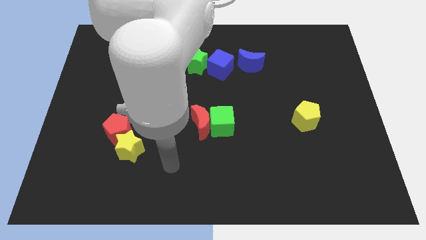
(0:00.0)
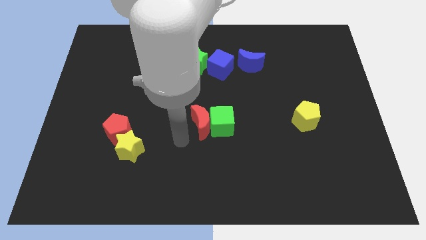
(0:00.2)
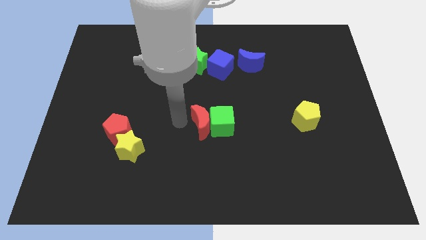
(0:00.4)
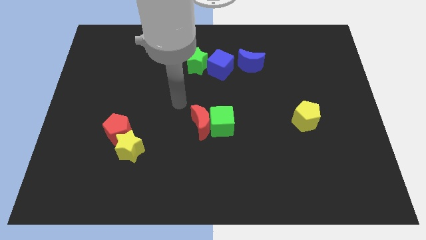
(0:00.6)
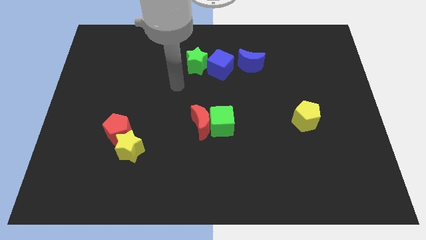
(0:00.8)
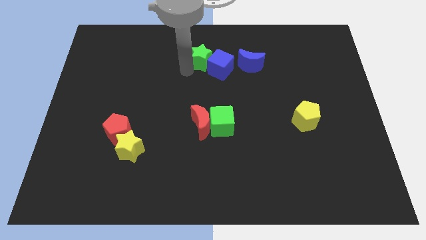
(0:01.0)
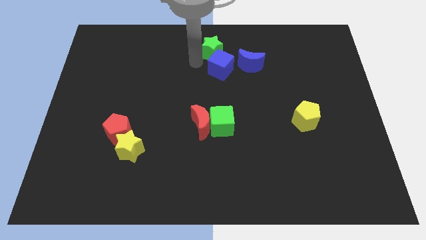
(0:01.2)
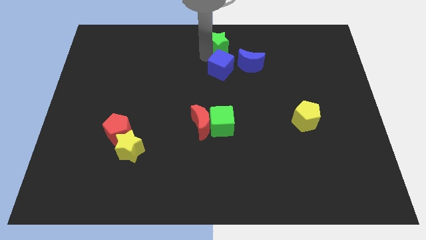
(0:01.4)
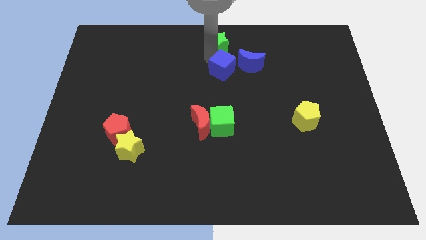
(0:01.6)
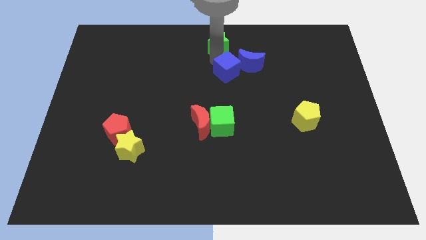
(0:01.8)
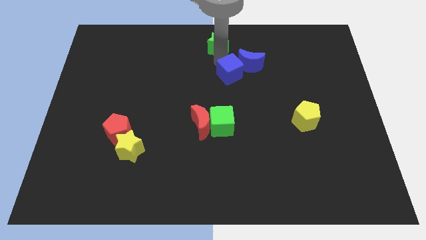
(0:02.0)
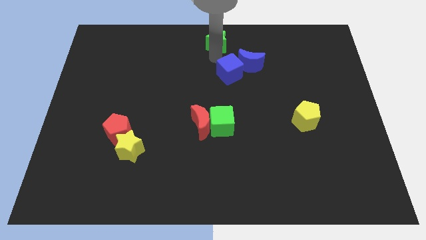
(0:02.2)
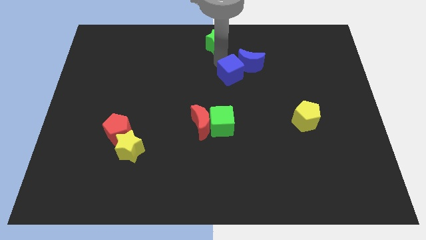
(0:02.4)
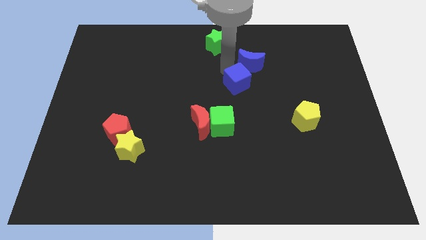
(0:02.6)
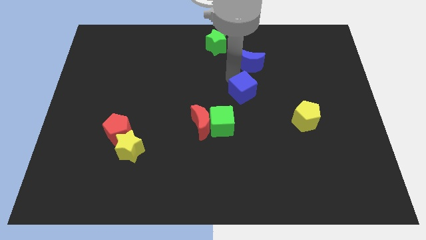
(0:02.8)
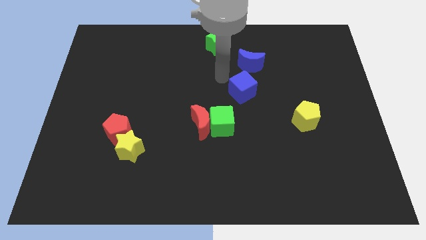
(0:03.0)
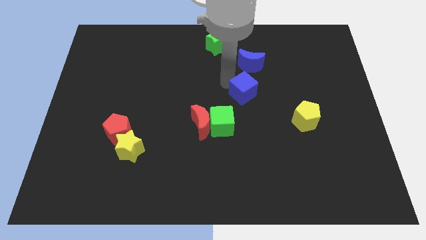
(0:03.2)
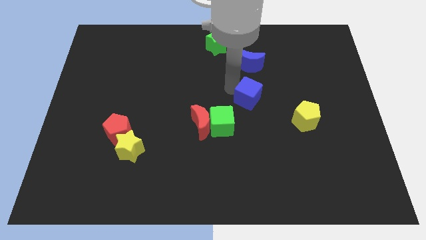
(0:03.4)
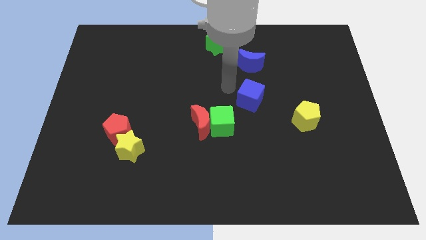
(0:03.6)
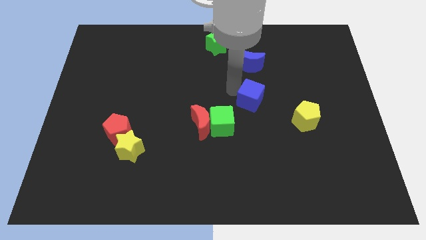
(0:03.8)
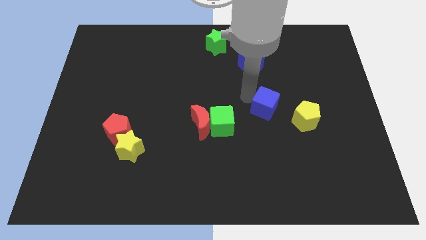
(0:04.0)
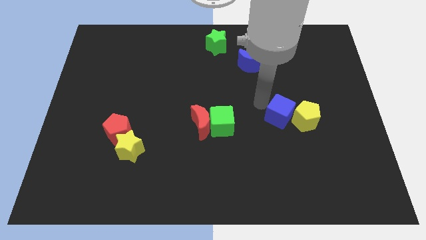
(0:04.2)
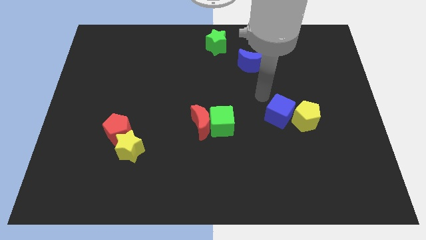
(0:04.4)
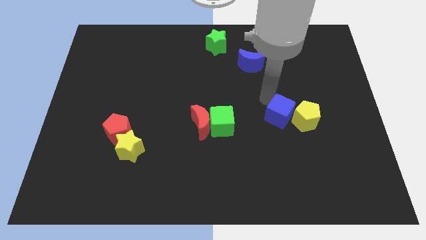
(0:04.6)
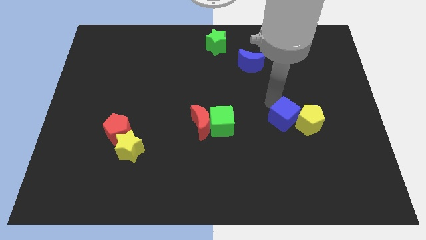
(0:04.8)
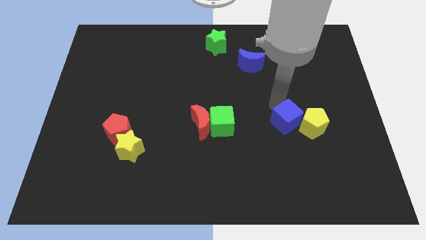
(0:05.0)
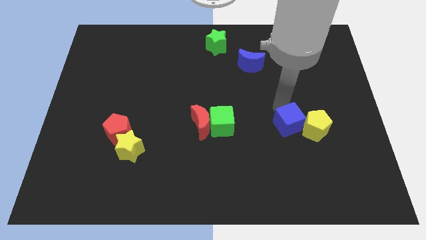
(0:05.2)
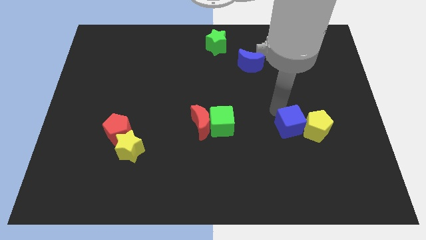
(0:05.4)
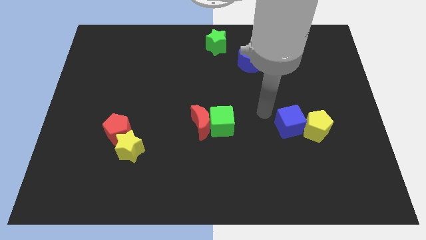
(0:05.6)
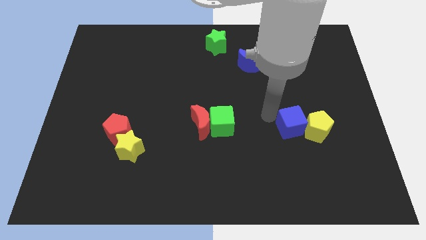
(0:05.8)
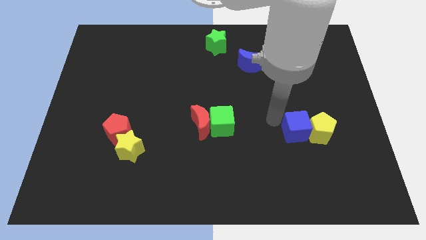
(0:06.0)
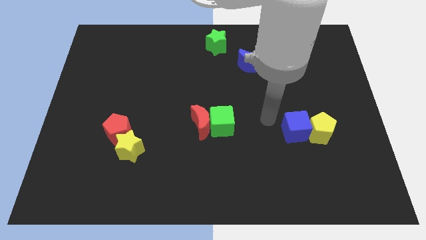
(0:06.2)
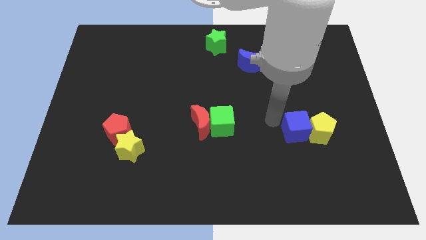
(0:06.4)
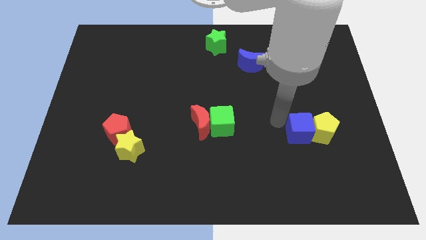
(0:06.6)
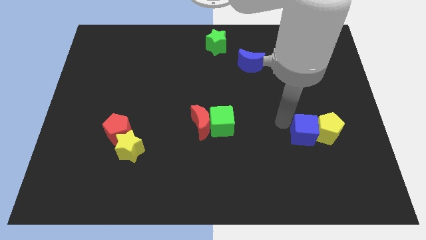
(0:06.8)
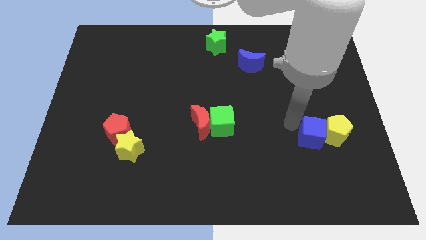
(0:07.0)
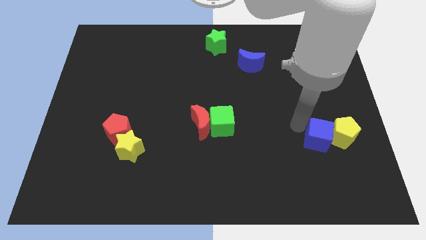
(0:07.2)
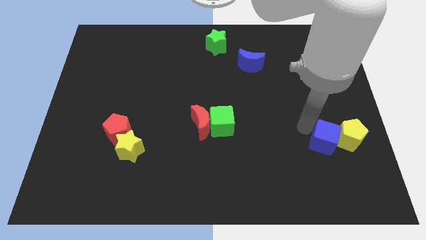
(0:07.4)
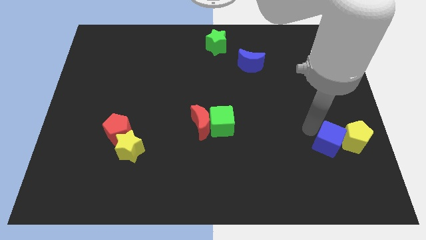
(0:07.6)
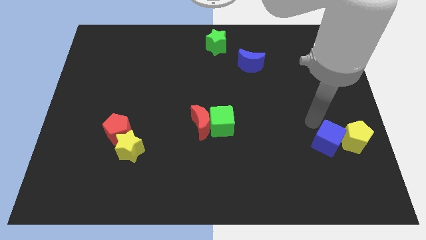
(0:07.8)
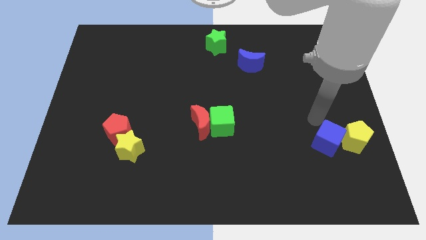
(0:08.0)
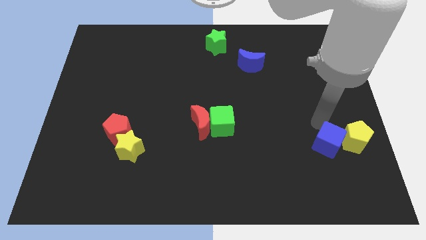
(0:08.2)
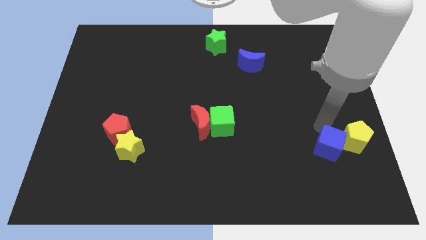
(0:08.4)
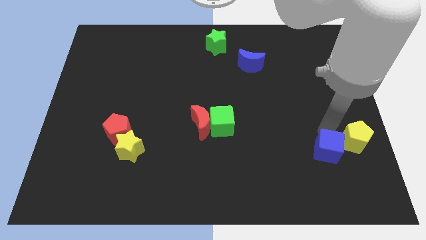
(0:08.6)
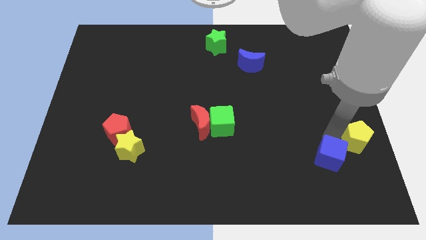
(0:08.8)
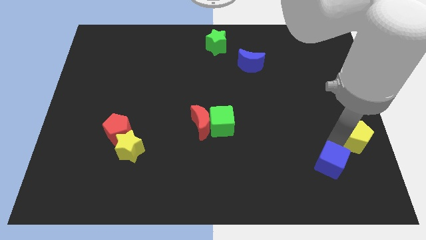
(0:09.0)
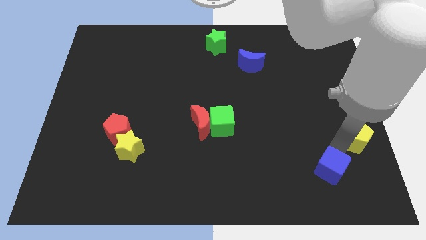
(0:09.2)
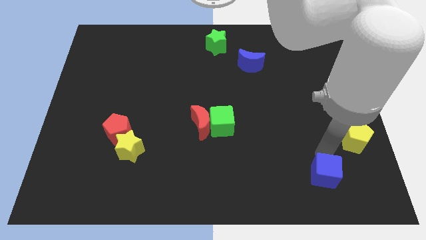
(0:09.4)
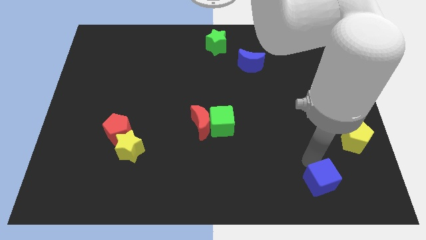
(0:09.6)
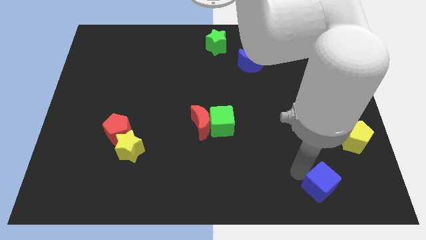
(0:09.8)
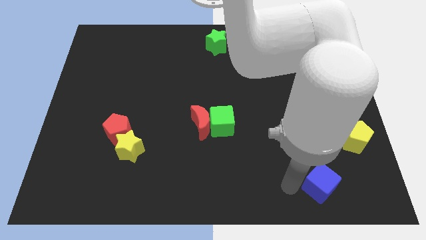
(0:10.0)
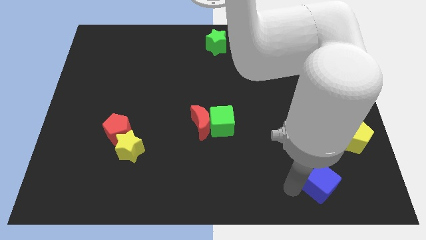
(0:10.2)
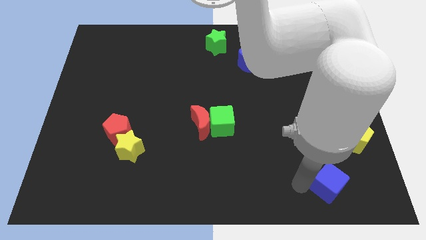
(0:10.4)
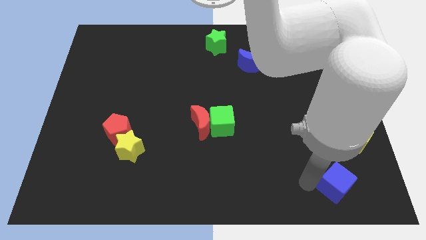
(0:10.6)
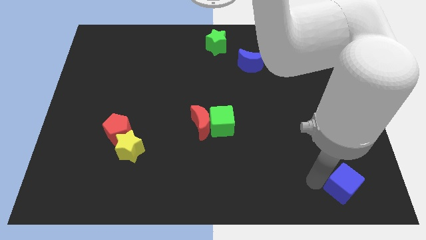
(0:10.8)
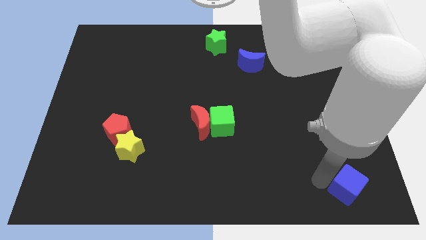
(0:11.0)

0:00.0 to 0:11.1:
put the blue cube to the bottom right

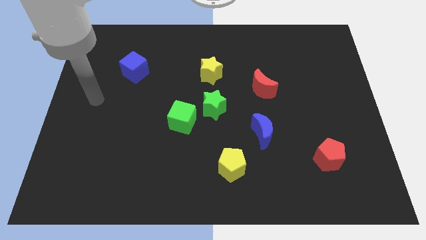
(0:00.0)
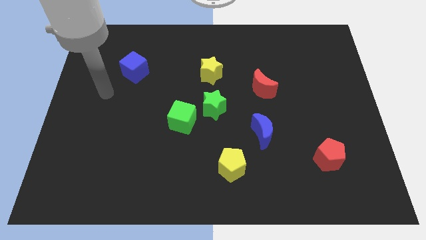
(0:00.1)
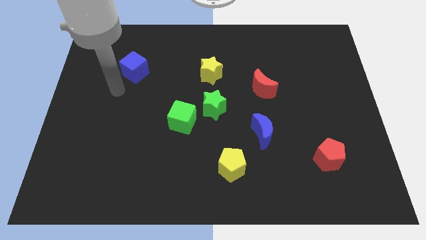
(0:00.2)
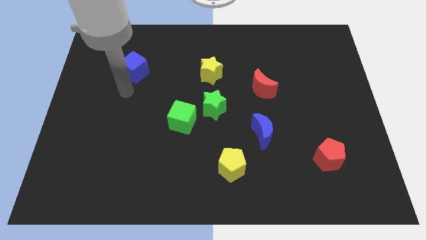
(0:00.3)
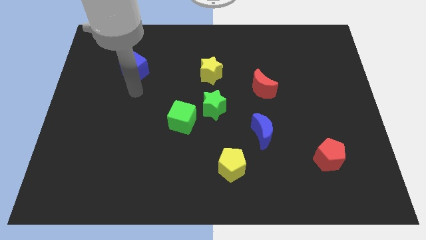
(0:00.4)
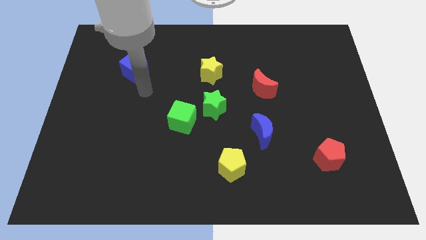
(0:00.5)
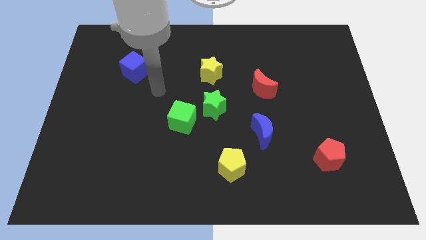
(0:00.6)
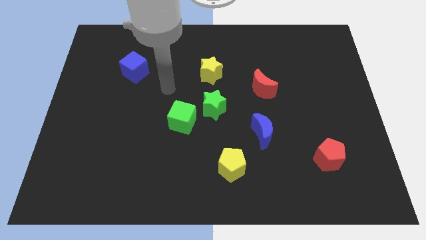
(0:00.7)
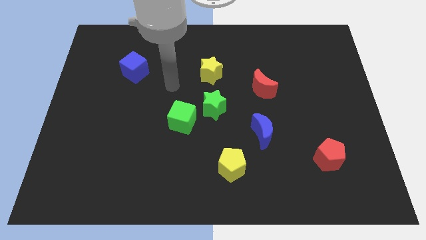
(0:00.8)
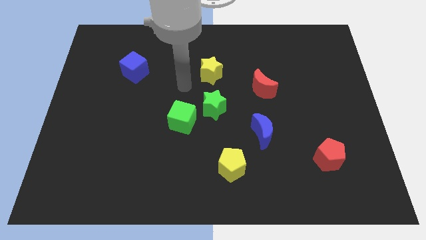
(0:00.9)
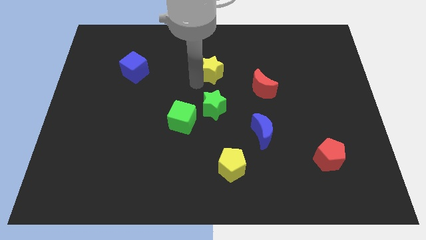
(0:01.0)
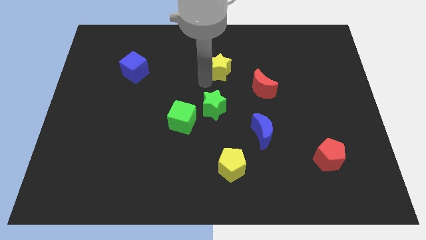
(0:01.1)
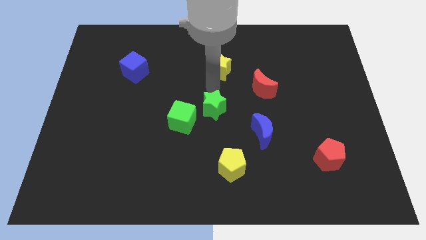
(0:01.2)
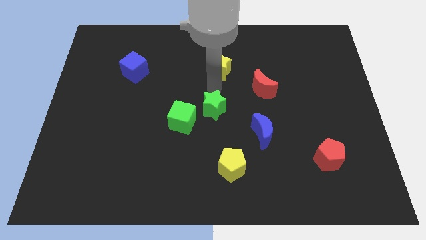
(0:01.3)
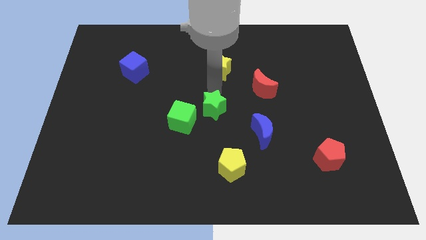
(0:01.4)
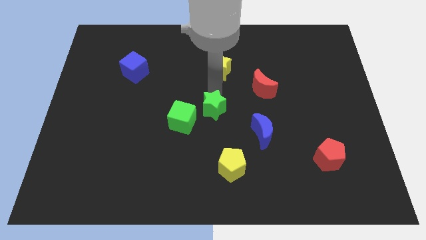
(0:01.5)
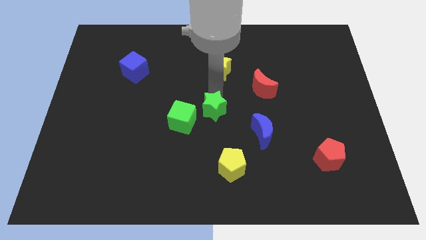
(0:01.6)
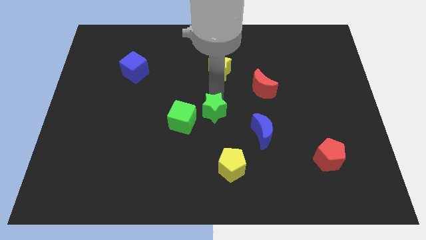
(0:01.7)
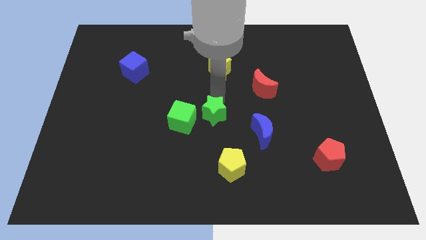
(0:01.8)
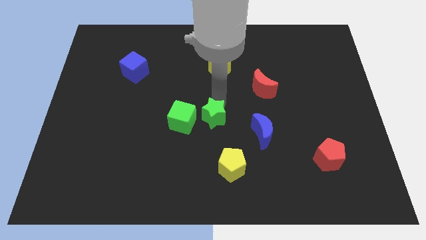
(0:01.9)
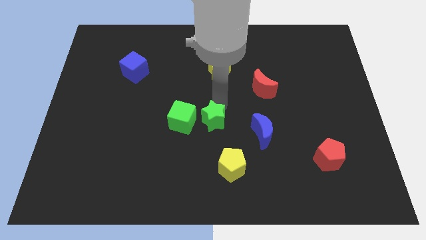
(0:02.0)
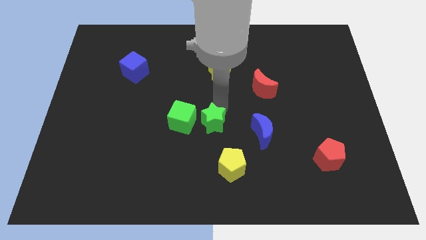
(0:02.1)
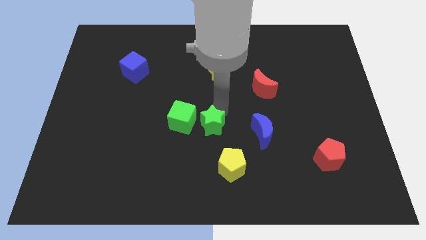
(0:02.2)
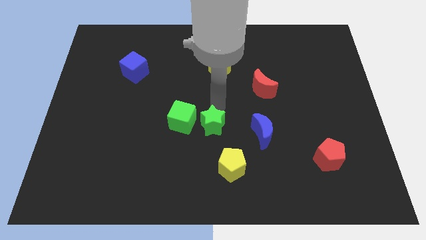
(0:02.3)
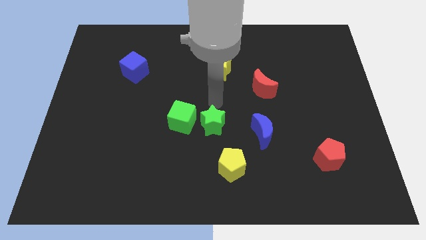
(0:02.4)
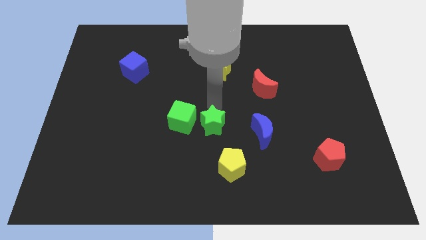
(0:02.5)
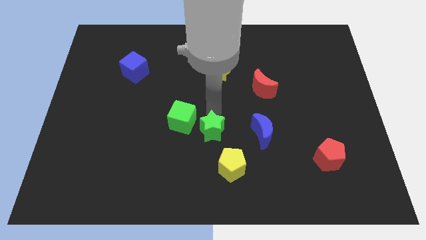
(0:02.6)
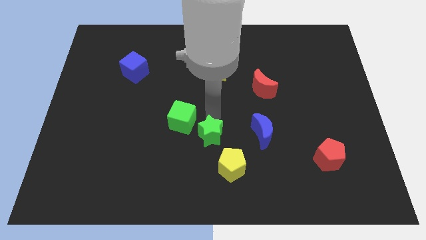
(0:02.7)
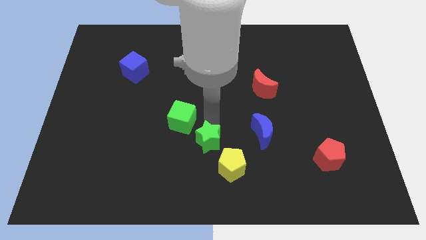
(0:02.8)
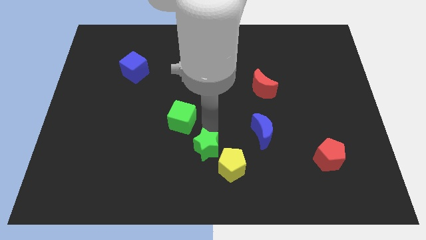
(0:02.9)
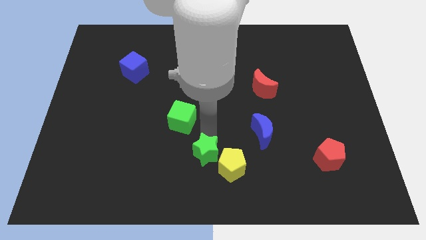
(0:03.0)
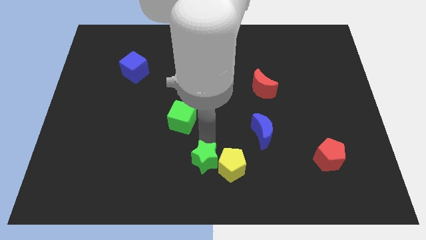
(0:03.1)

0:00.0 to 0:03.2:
push the green star to the bottom side
